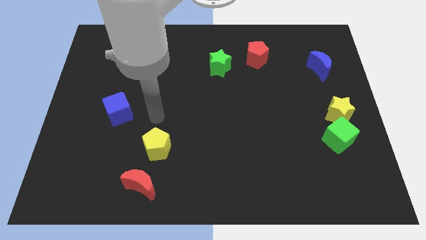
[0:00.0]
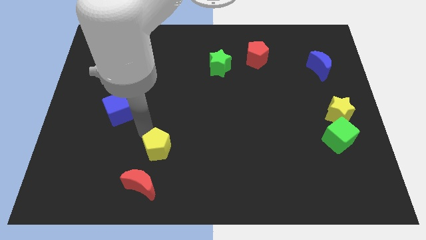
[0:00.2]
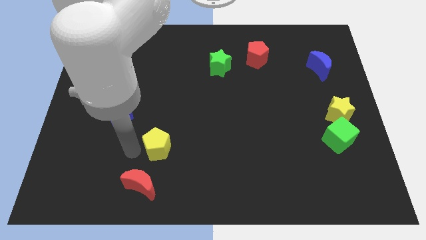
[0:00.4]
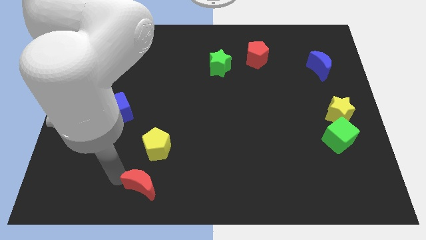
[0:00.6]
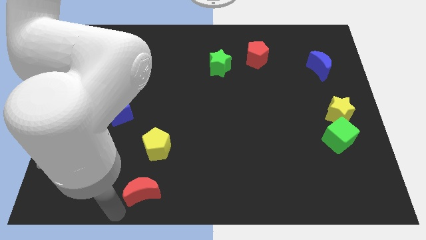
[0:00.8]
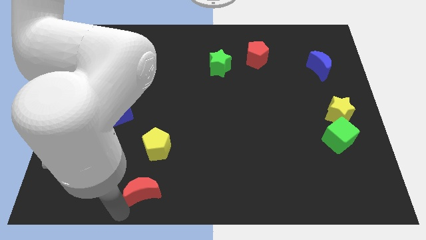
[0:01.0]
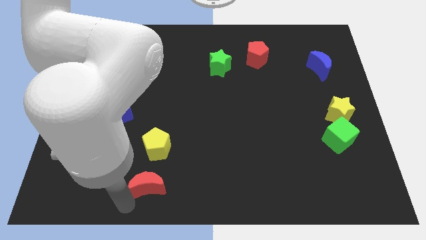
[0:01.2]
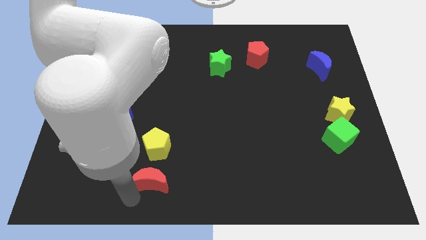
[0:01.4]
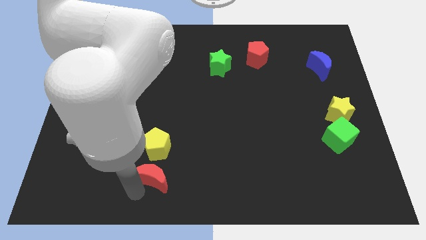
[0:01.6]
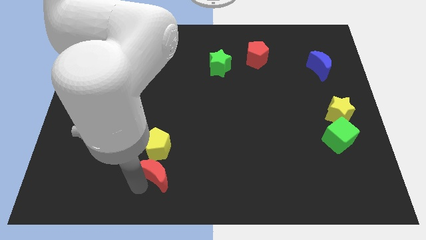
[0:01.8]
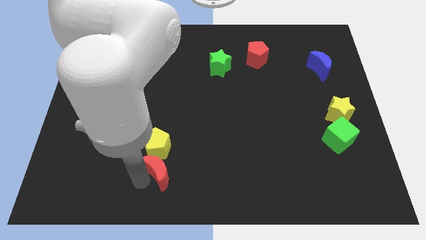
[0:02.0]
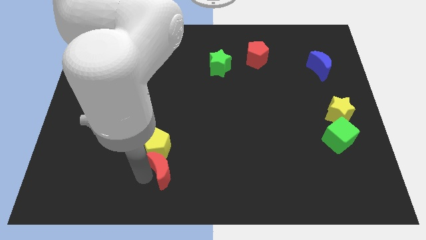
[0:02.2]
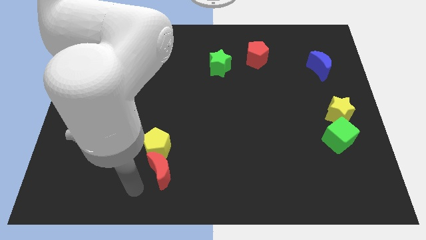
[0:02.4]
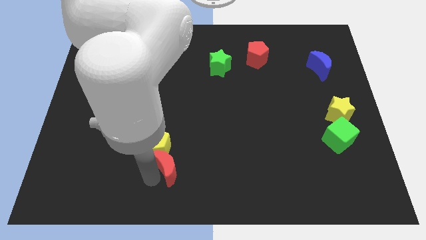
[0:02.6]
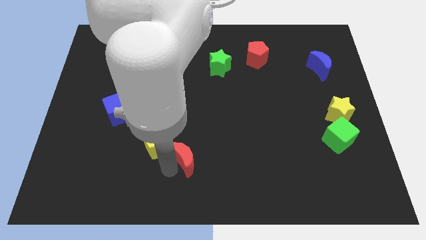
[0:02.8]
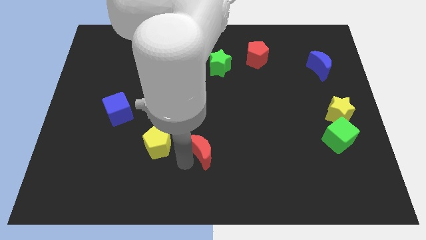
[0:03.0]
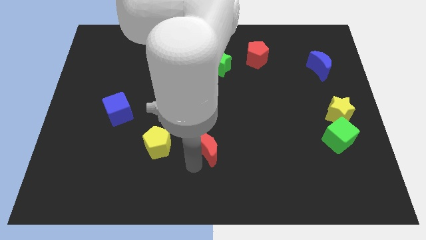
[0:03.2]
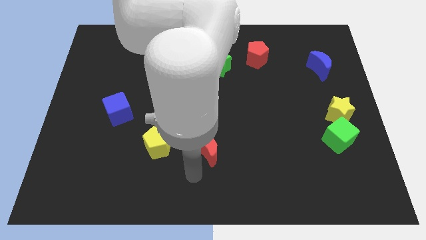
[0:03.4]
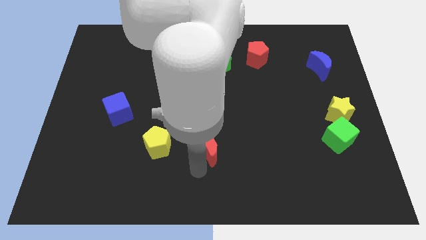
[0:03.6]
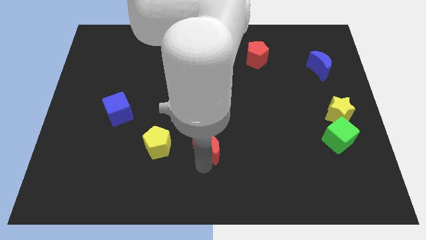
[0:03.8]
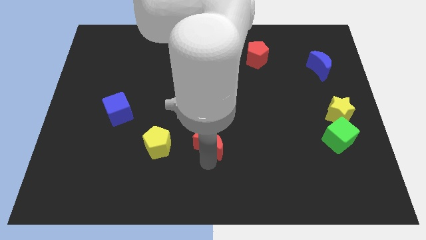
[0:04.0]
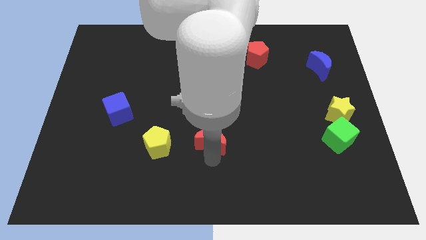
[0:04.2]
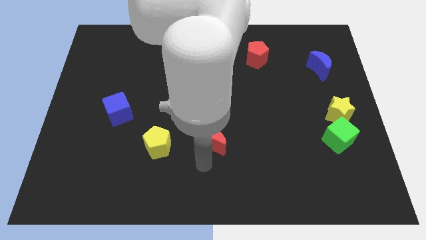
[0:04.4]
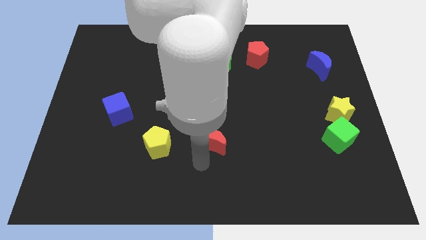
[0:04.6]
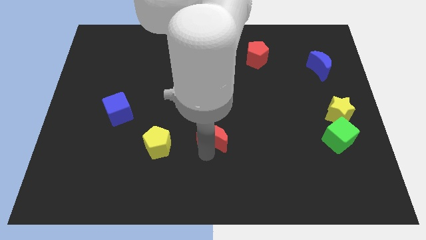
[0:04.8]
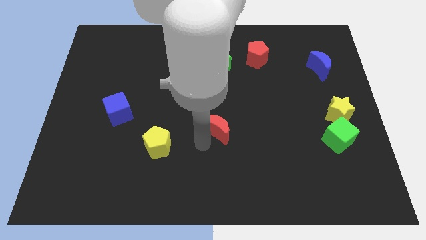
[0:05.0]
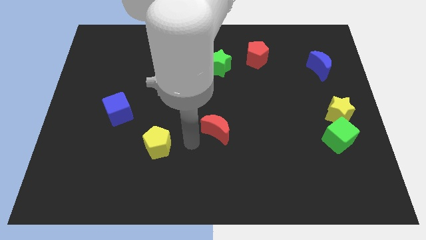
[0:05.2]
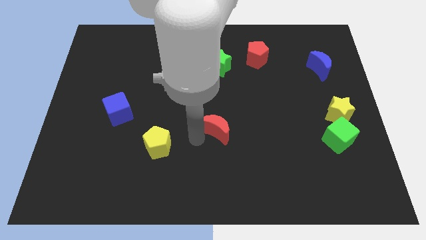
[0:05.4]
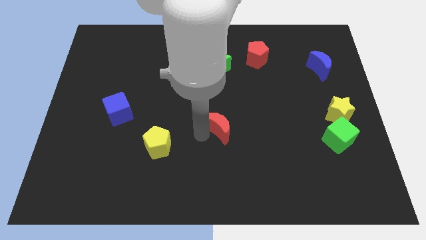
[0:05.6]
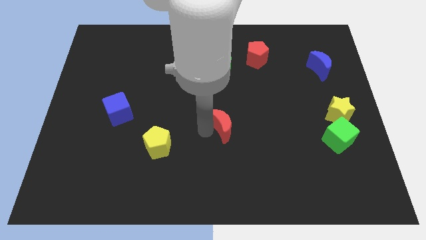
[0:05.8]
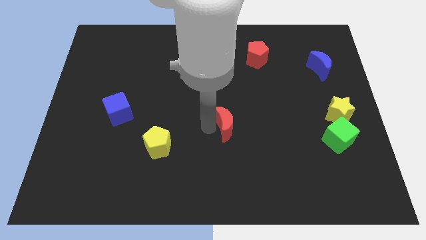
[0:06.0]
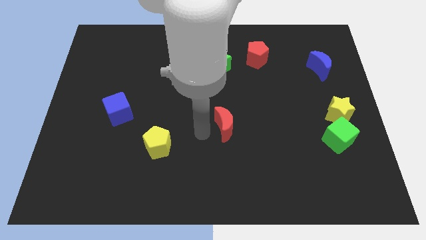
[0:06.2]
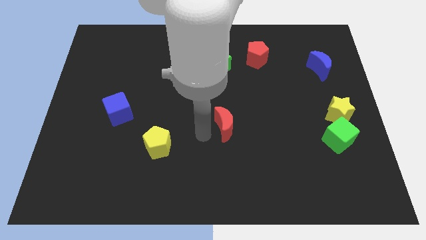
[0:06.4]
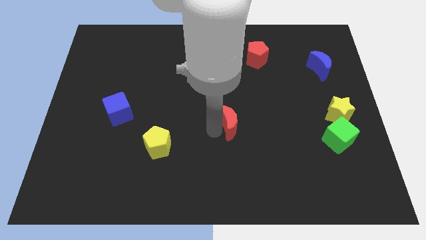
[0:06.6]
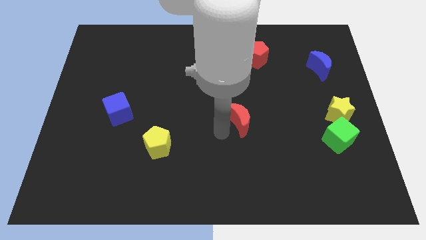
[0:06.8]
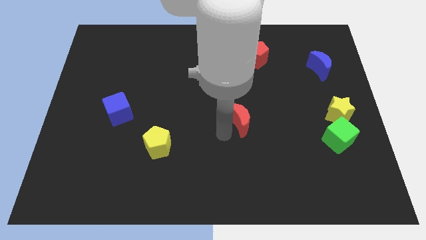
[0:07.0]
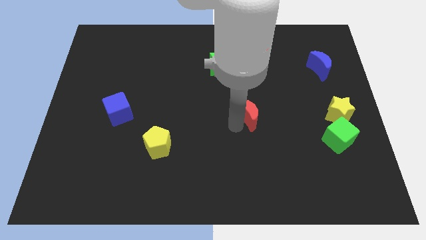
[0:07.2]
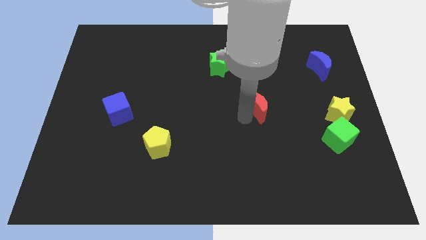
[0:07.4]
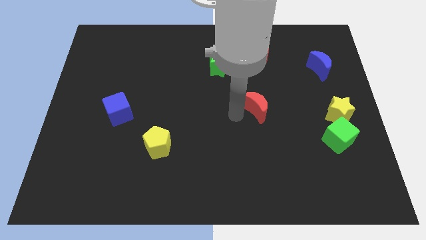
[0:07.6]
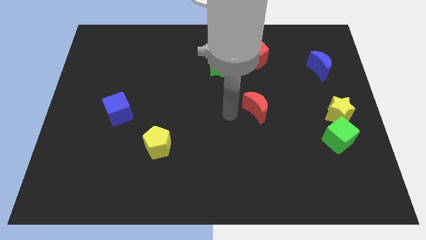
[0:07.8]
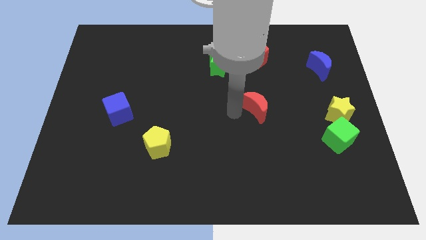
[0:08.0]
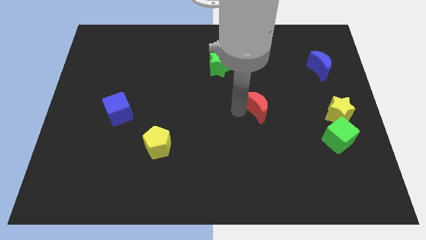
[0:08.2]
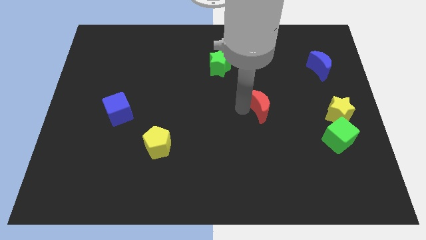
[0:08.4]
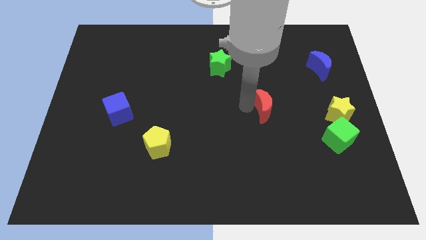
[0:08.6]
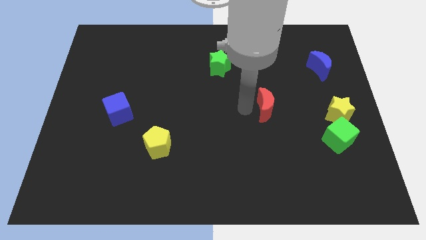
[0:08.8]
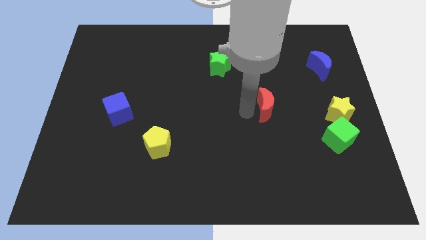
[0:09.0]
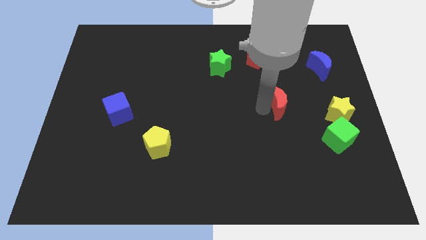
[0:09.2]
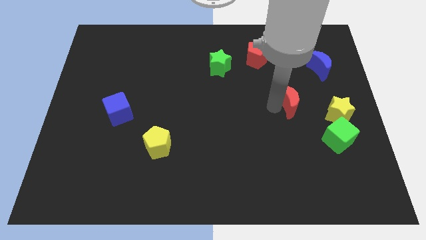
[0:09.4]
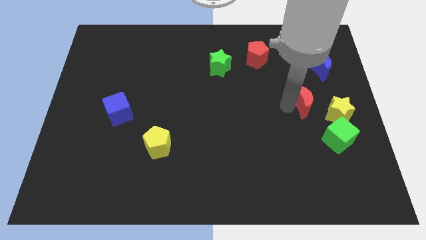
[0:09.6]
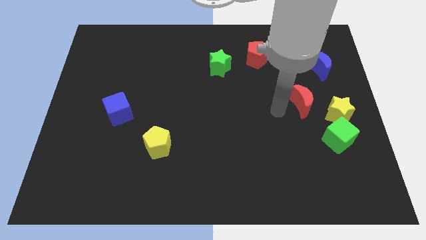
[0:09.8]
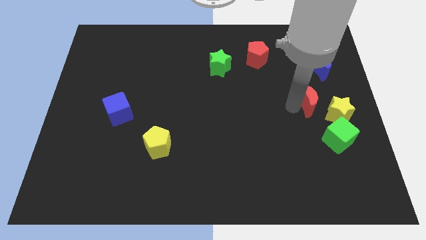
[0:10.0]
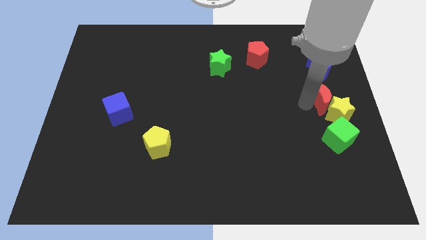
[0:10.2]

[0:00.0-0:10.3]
push the red moon to the right side

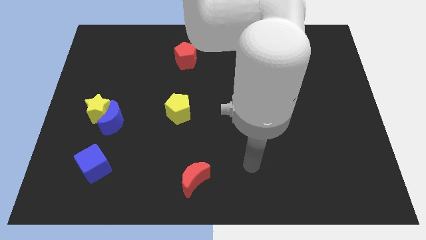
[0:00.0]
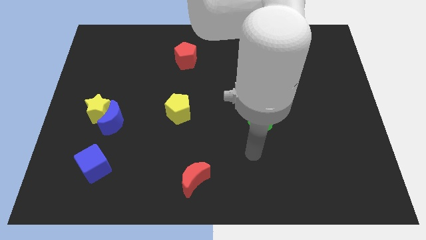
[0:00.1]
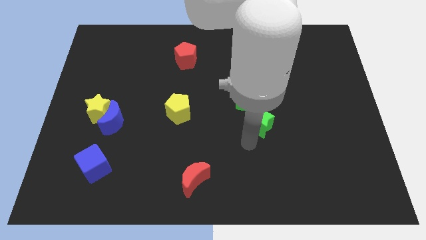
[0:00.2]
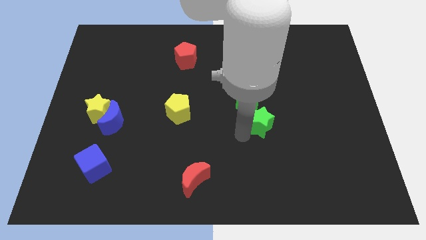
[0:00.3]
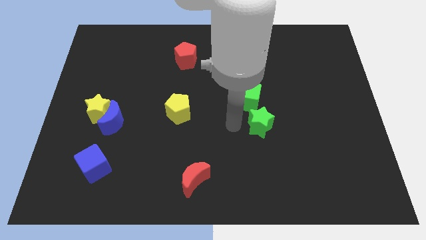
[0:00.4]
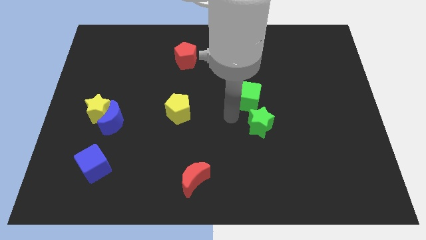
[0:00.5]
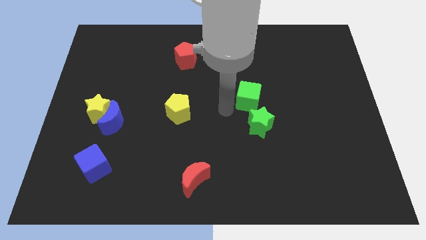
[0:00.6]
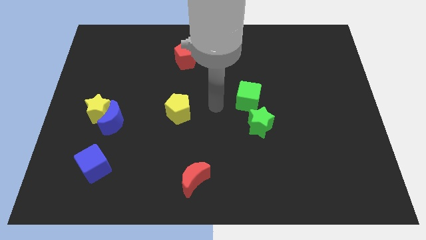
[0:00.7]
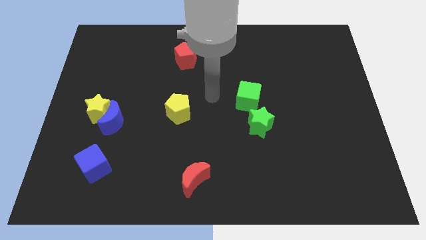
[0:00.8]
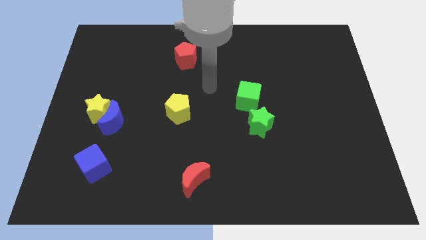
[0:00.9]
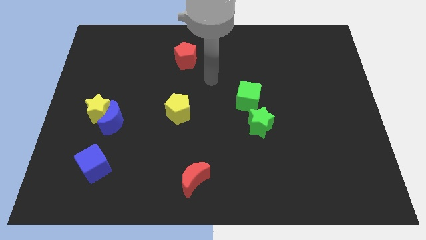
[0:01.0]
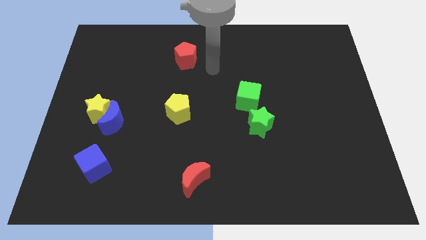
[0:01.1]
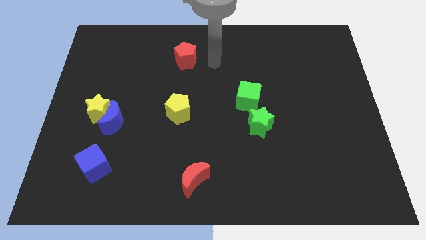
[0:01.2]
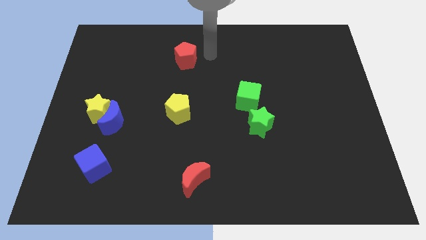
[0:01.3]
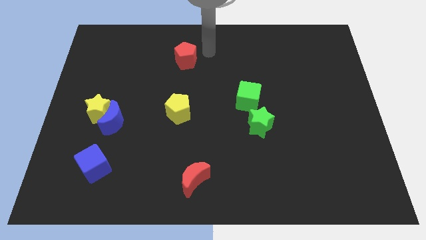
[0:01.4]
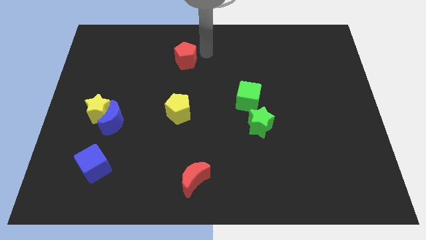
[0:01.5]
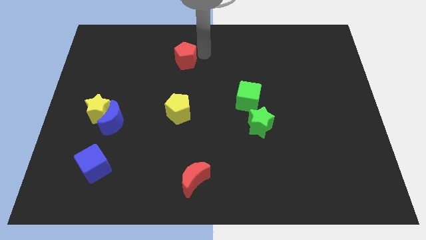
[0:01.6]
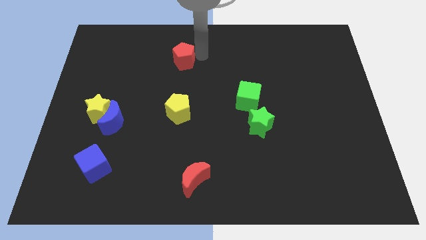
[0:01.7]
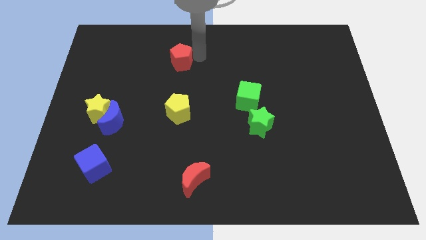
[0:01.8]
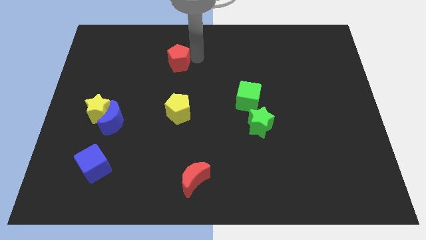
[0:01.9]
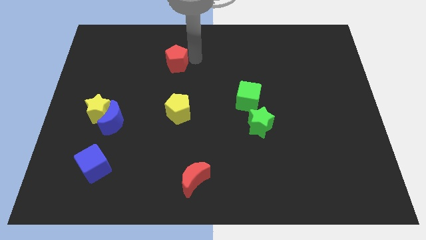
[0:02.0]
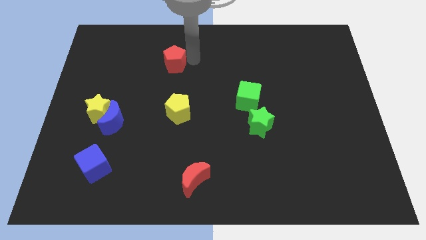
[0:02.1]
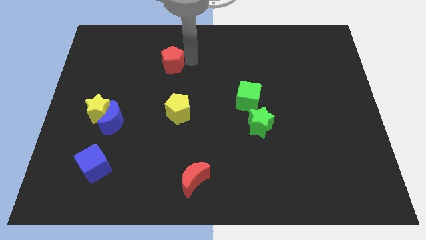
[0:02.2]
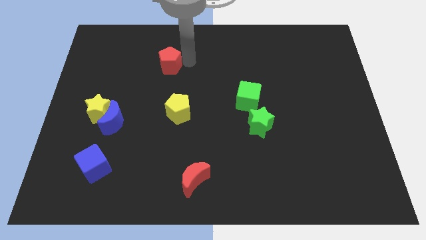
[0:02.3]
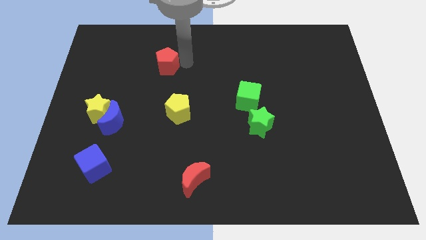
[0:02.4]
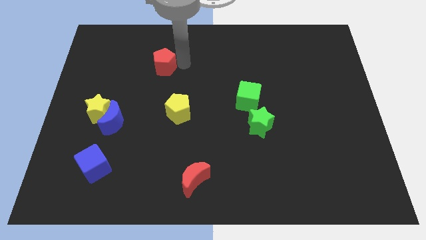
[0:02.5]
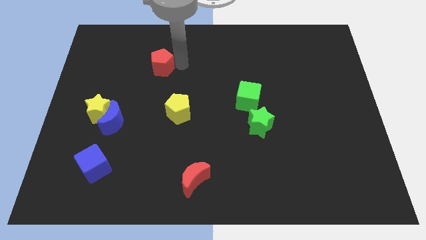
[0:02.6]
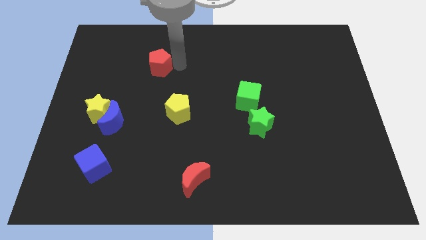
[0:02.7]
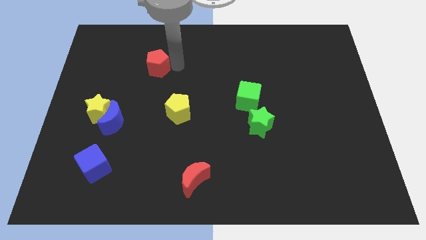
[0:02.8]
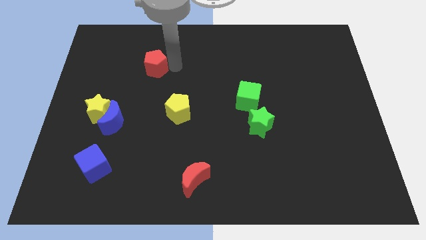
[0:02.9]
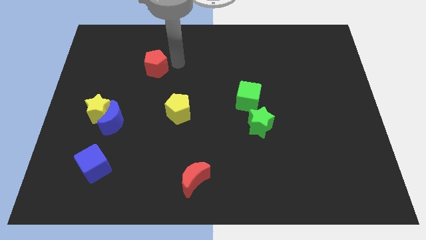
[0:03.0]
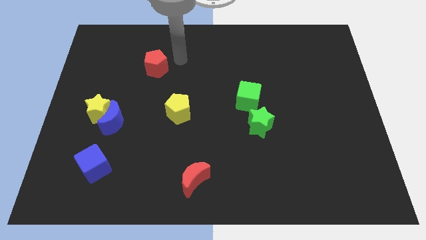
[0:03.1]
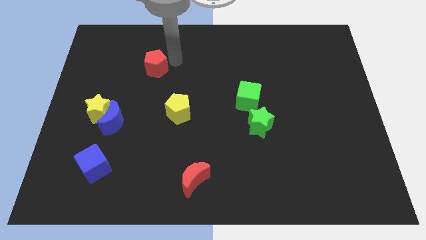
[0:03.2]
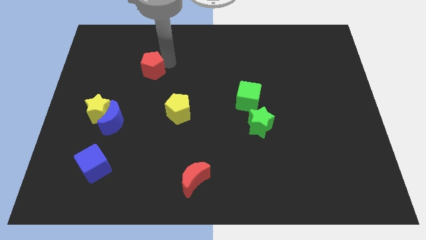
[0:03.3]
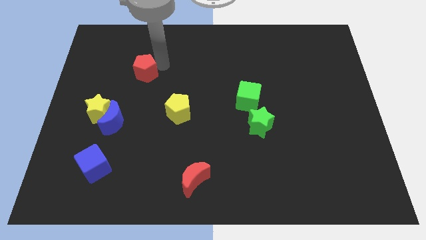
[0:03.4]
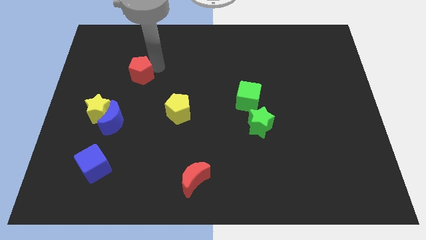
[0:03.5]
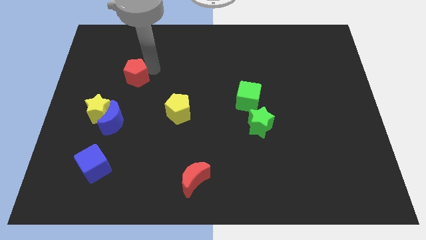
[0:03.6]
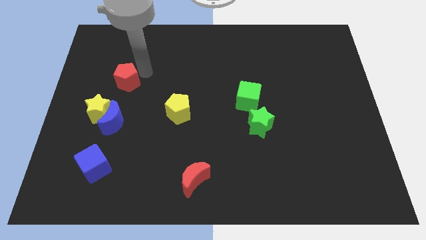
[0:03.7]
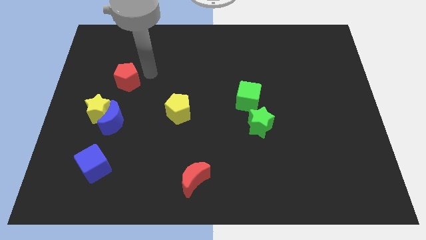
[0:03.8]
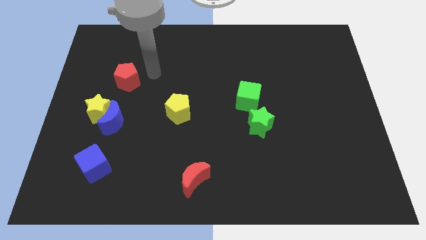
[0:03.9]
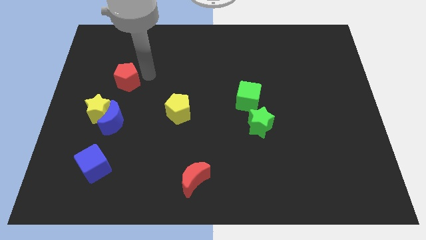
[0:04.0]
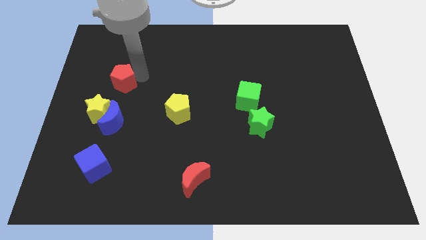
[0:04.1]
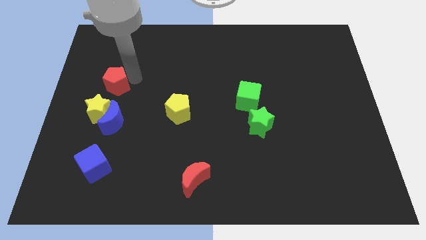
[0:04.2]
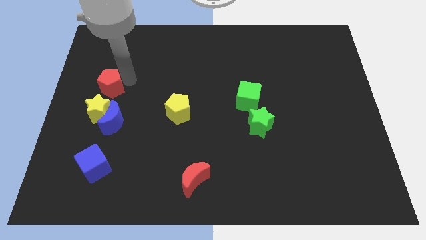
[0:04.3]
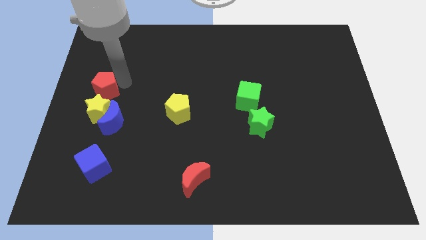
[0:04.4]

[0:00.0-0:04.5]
push the red pentagon to the left side
